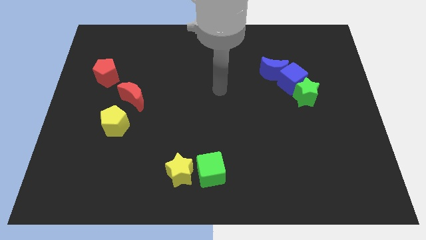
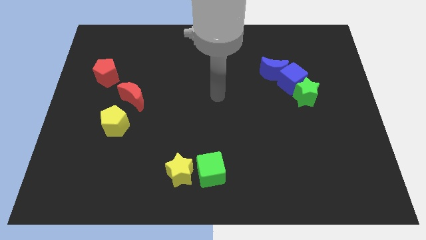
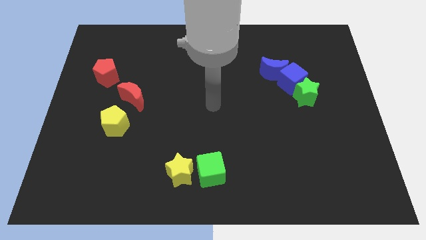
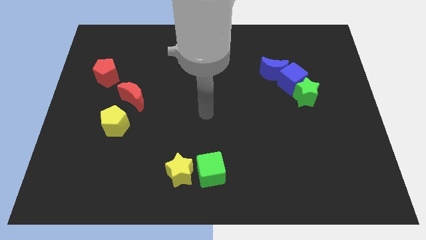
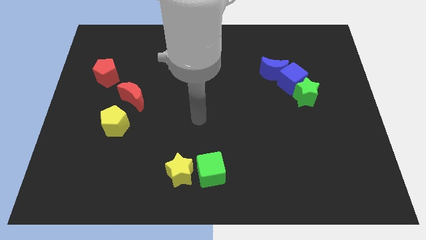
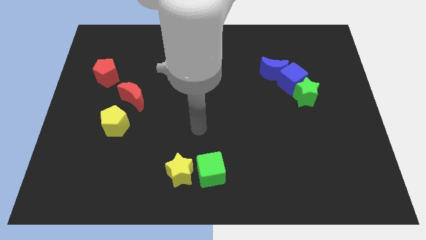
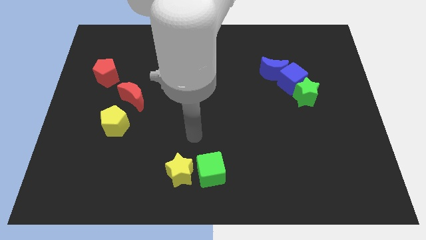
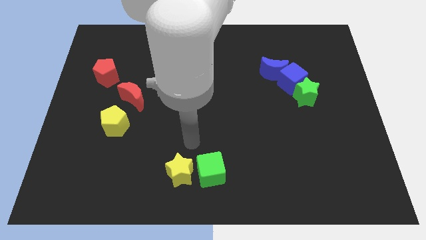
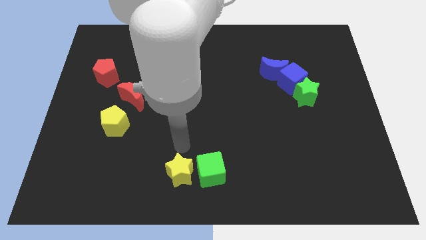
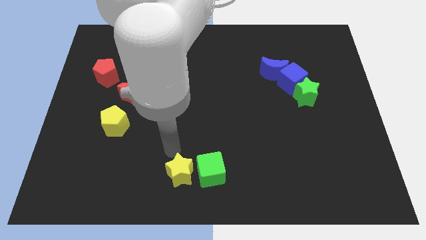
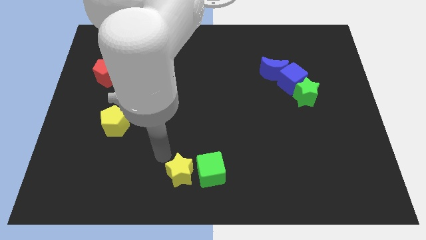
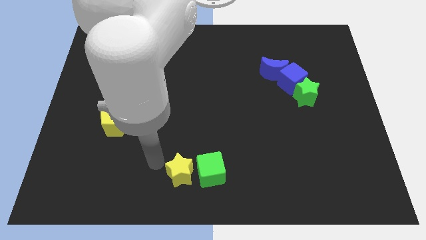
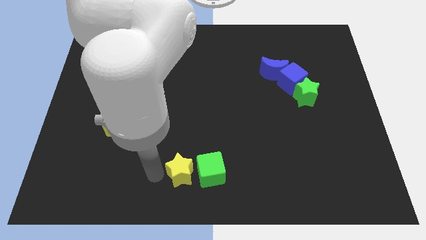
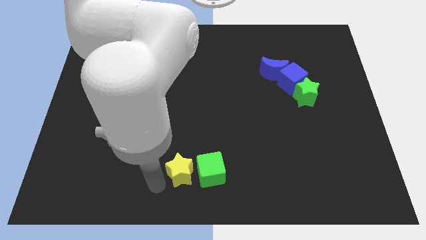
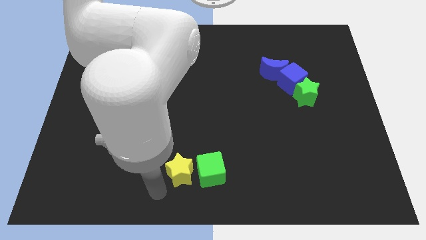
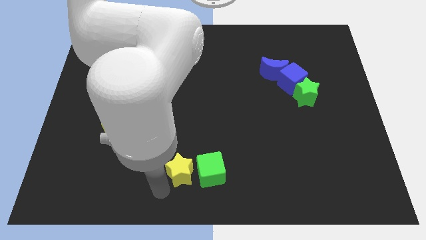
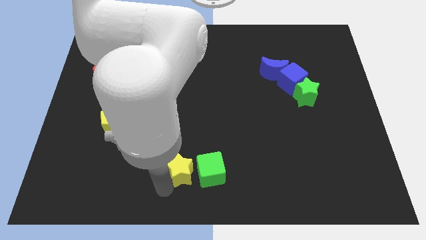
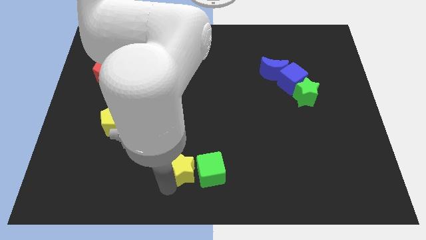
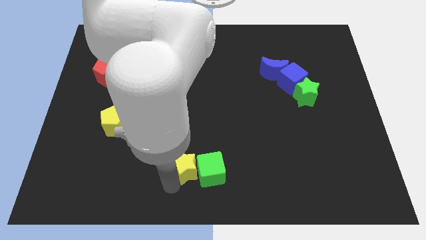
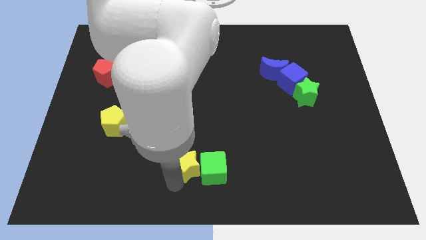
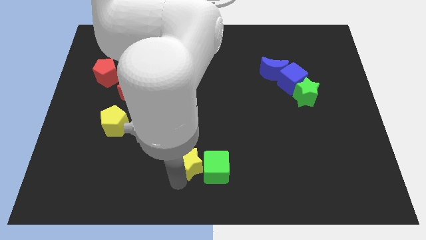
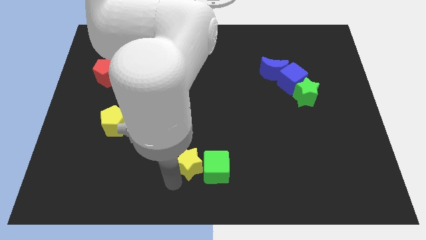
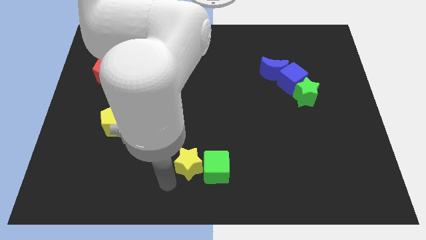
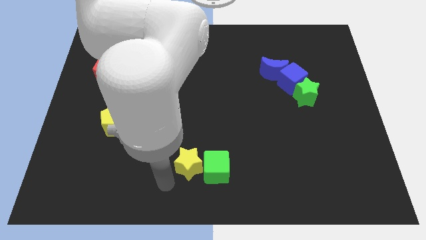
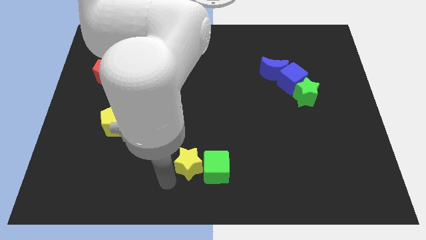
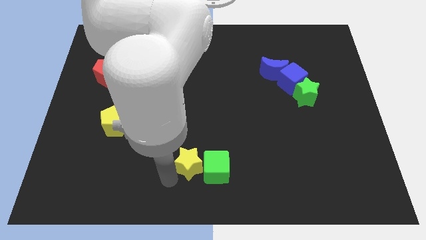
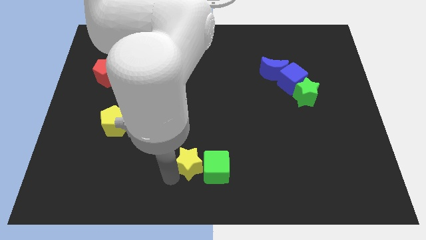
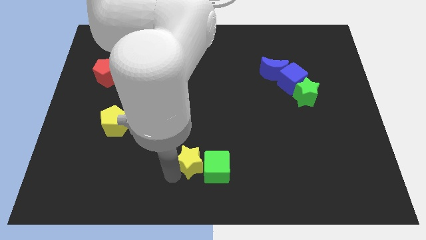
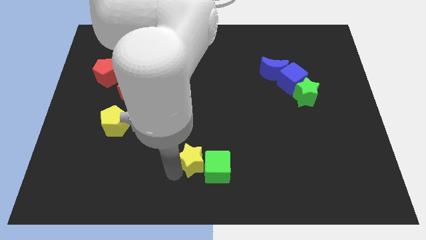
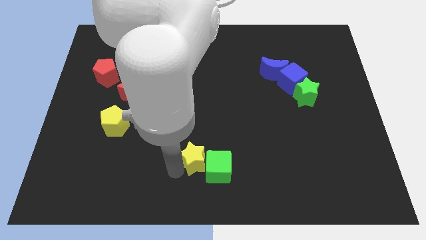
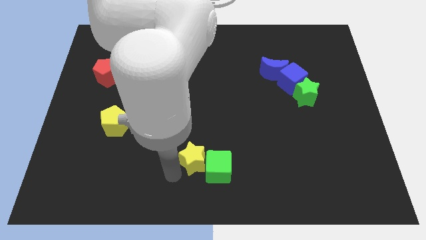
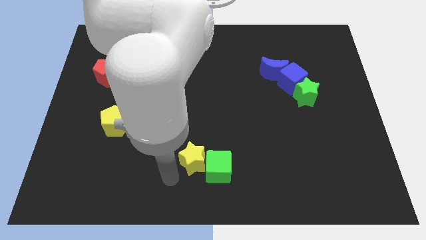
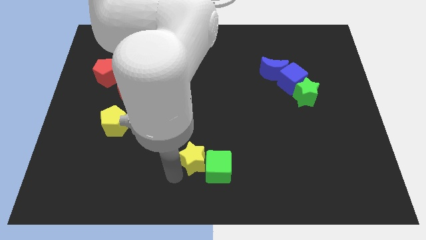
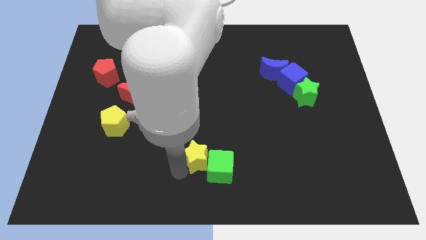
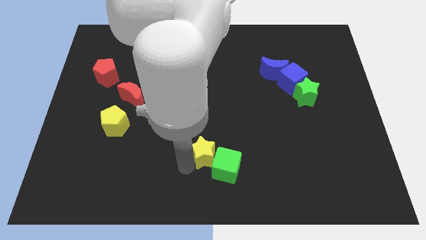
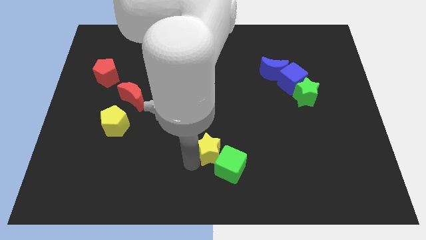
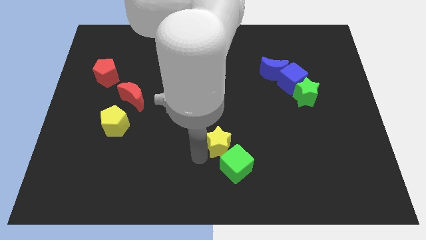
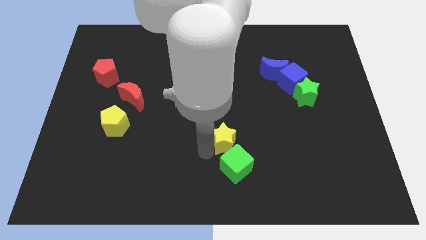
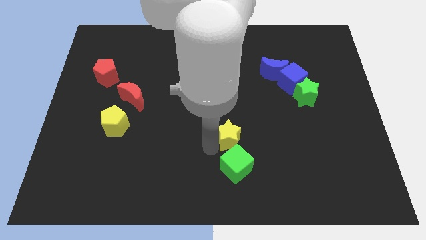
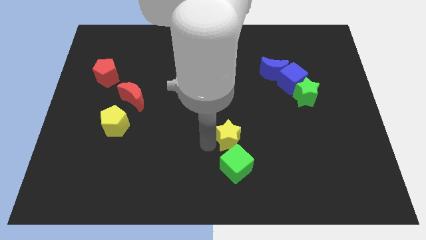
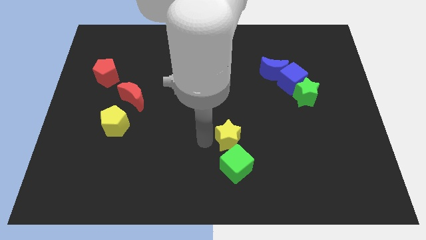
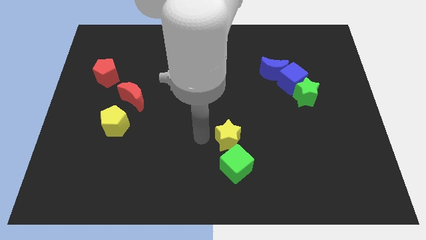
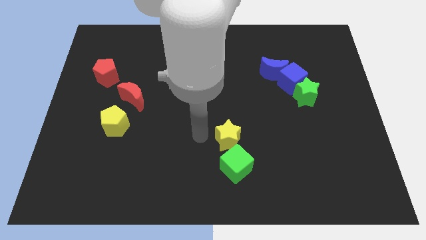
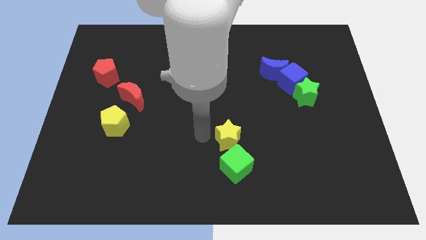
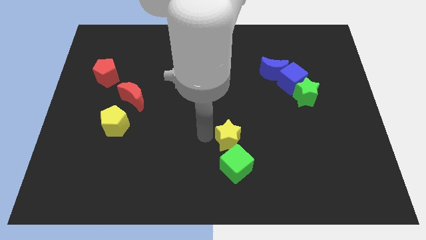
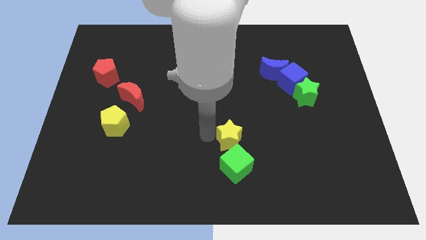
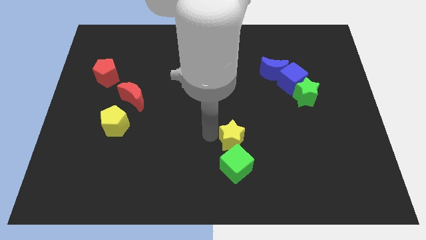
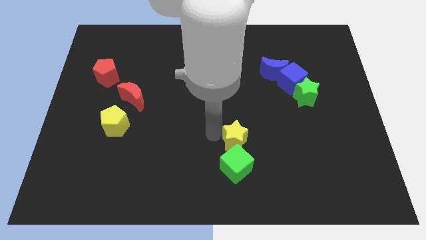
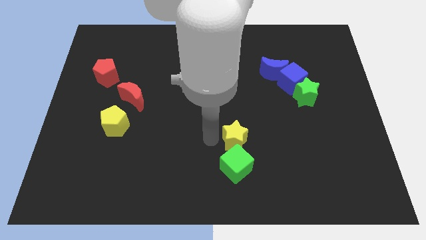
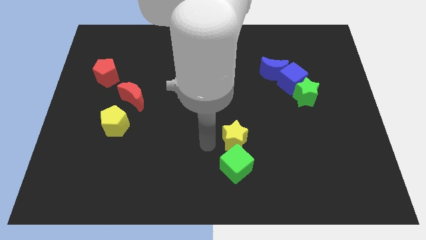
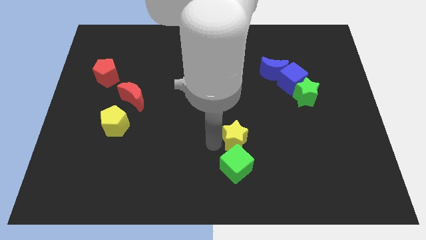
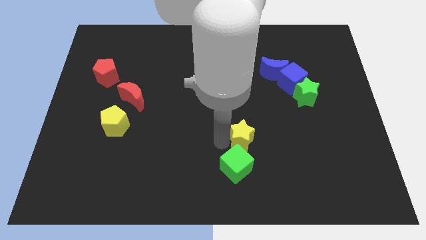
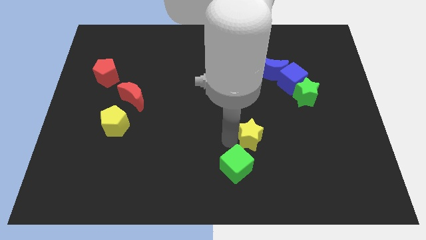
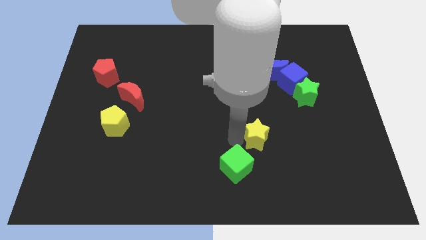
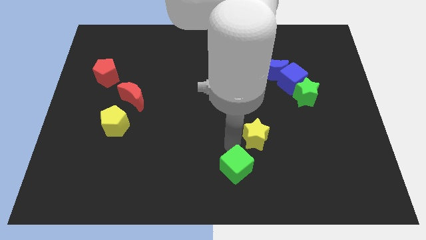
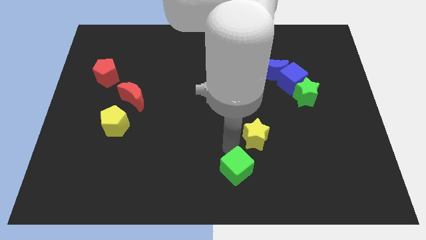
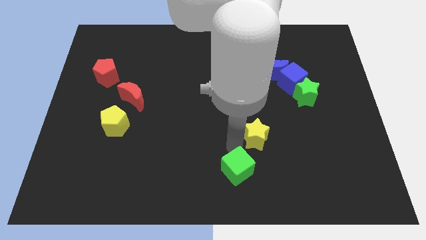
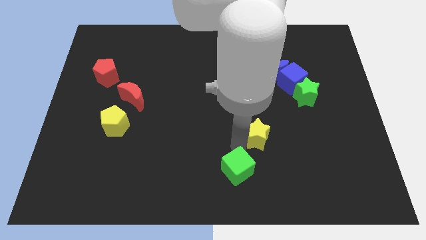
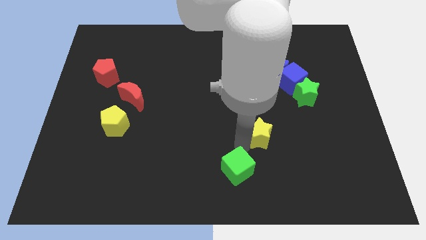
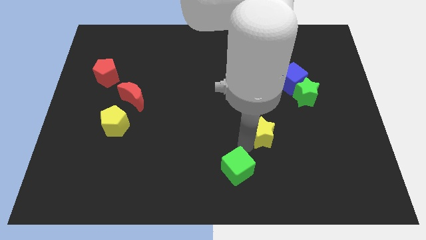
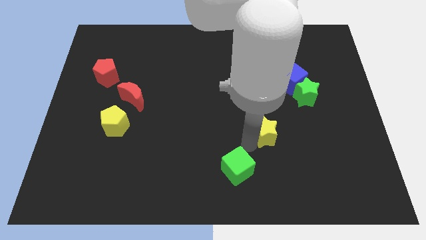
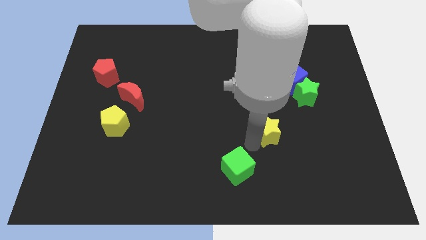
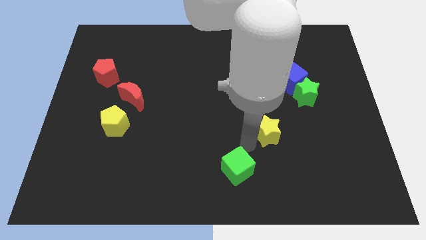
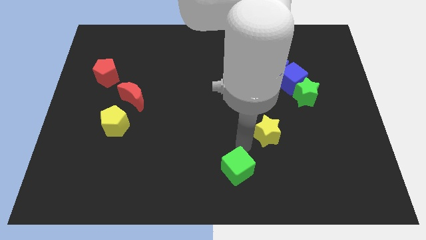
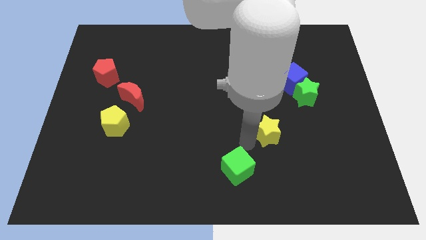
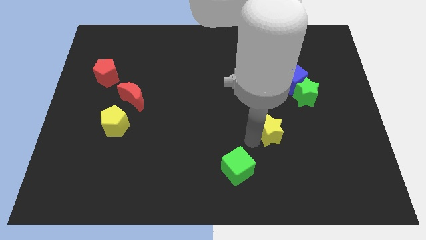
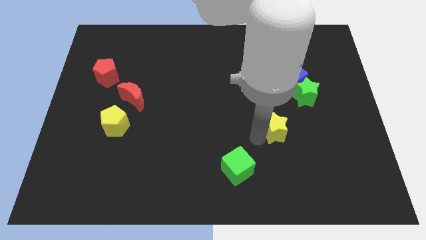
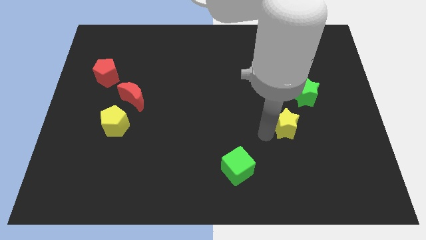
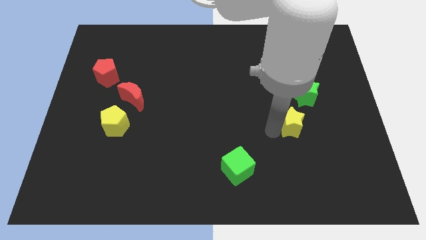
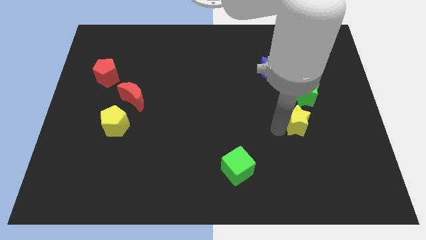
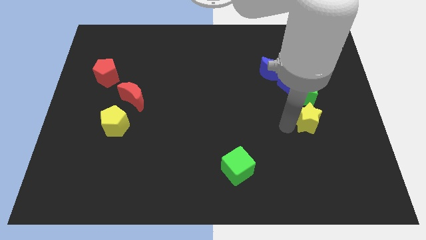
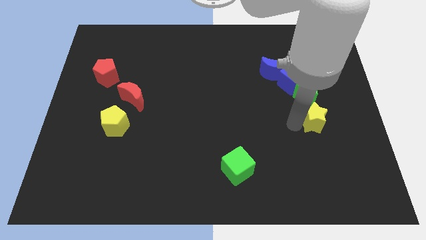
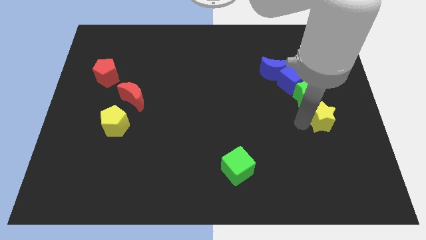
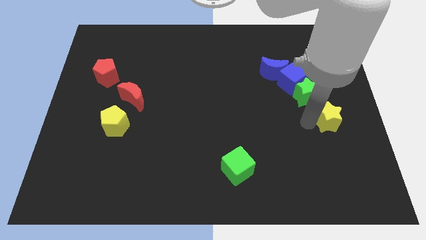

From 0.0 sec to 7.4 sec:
push the yellow star to the center right
